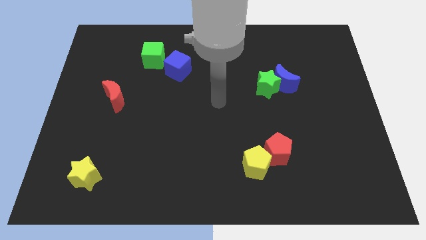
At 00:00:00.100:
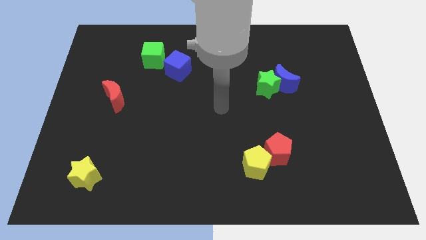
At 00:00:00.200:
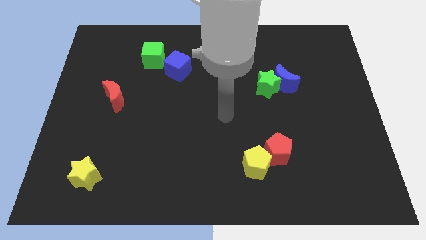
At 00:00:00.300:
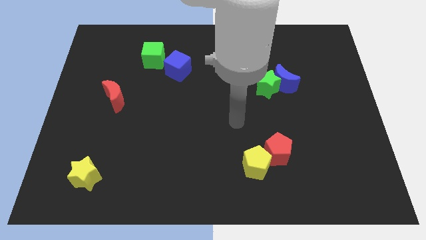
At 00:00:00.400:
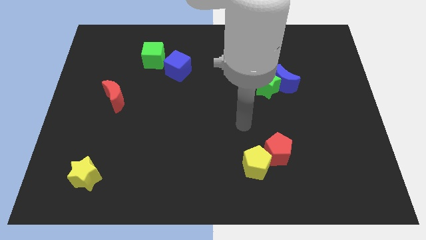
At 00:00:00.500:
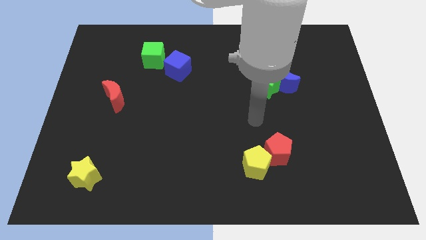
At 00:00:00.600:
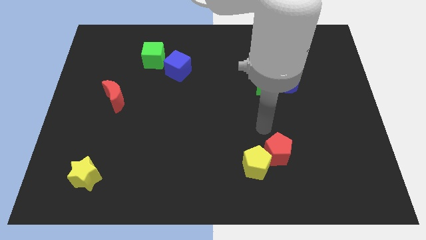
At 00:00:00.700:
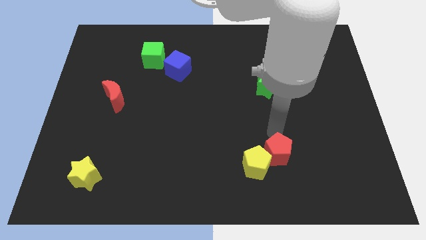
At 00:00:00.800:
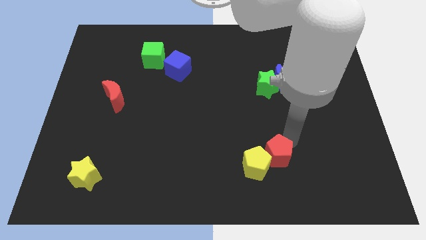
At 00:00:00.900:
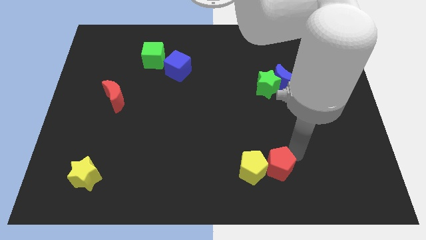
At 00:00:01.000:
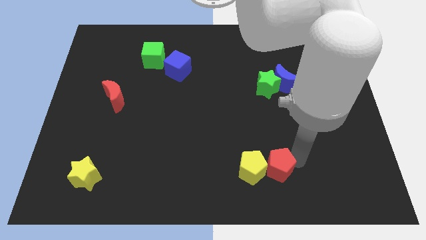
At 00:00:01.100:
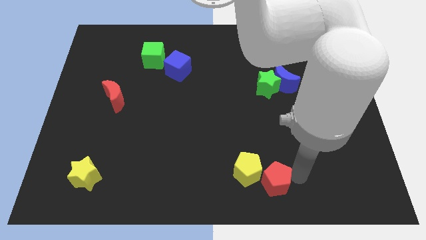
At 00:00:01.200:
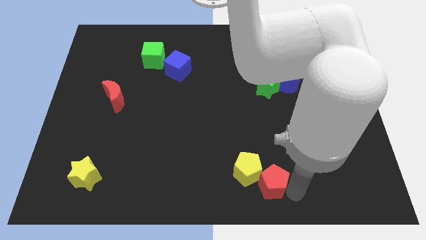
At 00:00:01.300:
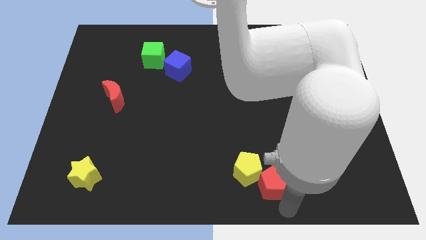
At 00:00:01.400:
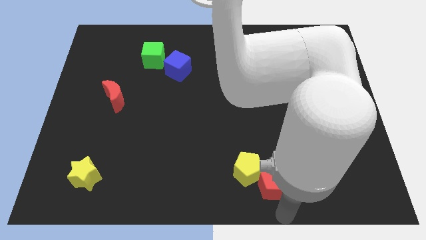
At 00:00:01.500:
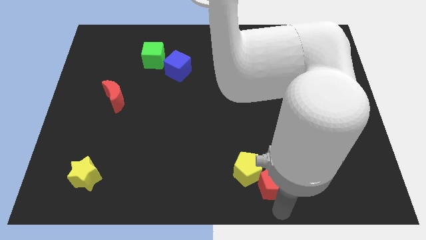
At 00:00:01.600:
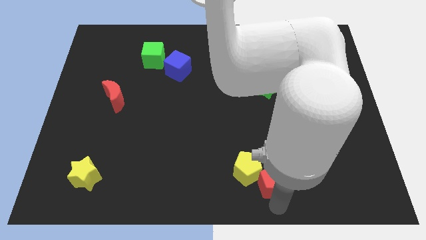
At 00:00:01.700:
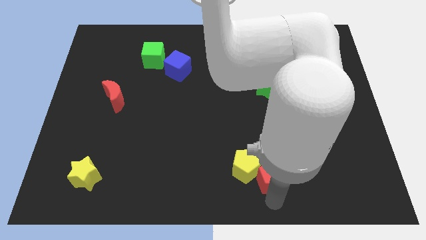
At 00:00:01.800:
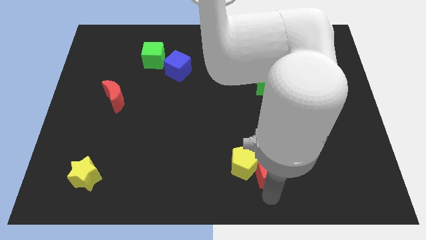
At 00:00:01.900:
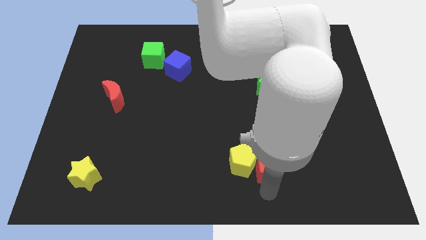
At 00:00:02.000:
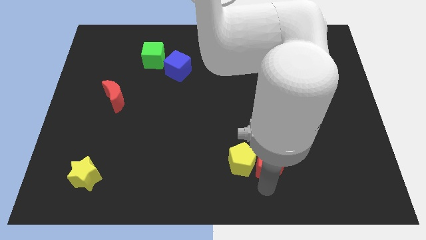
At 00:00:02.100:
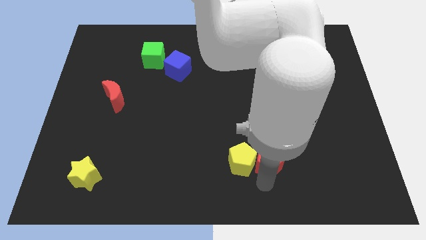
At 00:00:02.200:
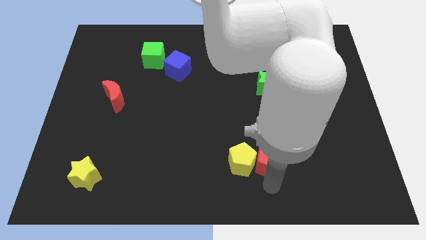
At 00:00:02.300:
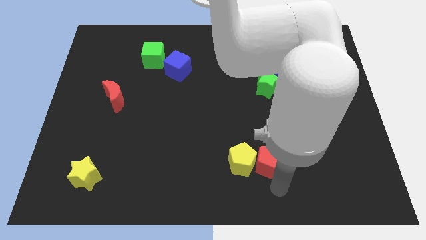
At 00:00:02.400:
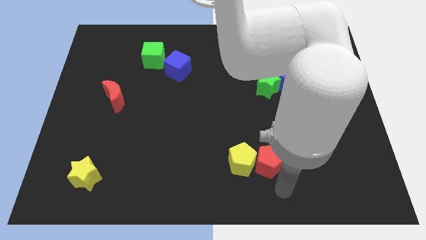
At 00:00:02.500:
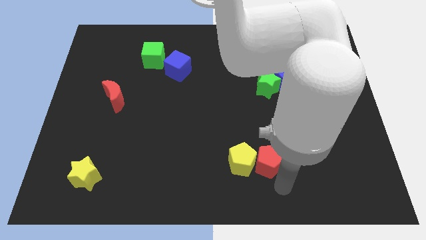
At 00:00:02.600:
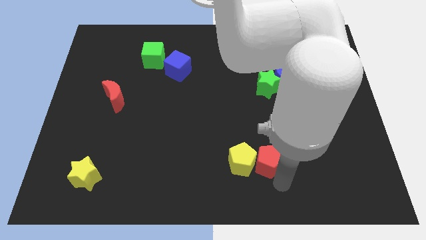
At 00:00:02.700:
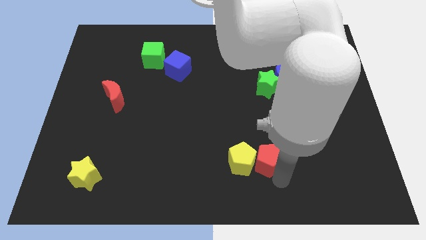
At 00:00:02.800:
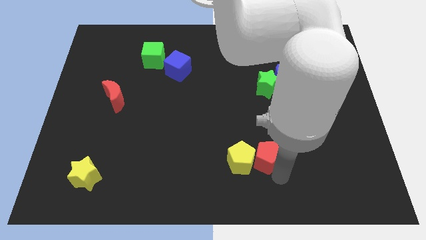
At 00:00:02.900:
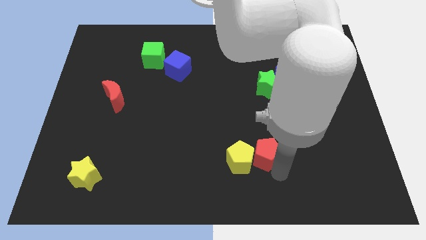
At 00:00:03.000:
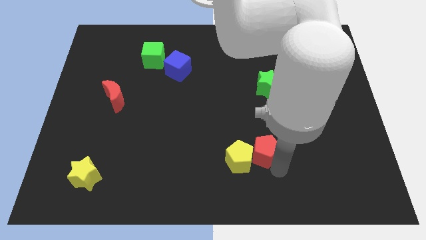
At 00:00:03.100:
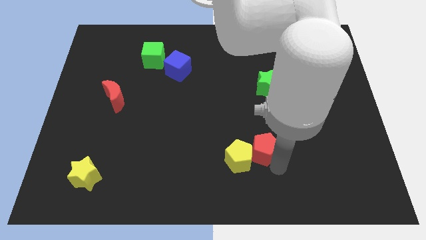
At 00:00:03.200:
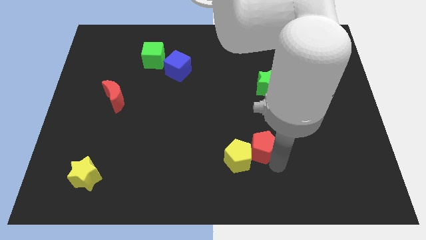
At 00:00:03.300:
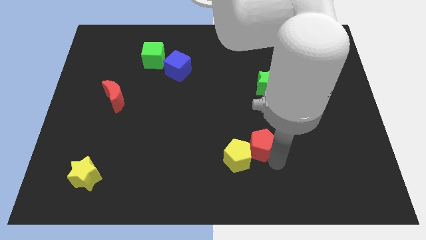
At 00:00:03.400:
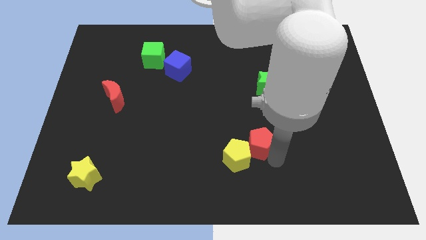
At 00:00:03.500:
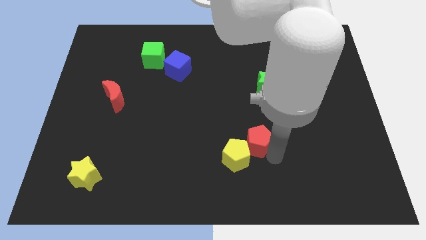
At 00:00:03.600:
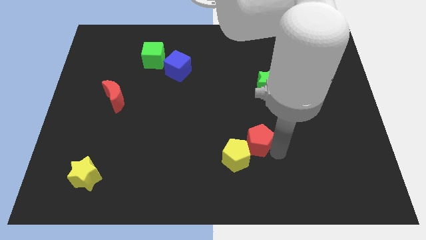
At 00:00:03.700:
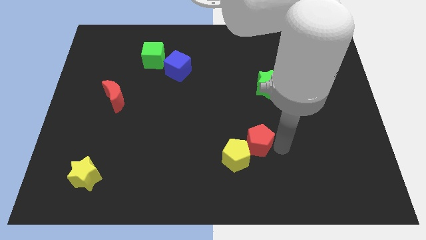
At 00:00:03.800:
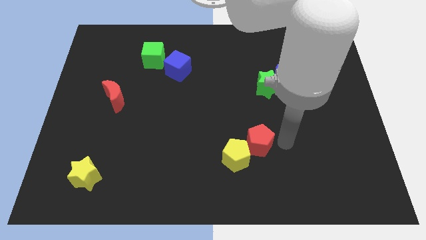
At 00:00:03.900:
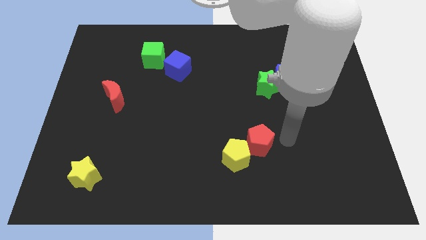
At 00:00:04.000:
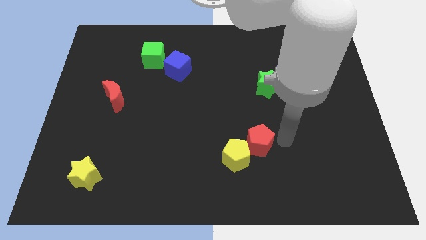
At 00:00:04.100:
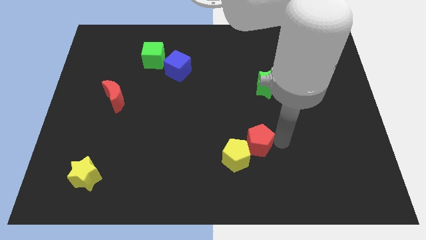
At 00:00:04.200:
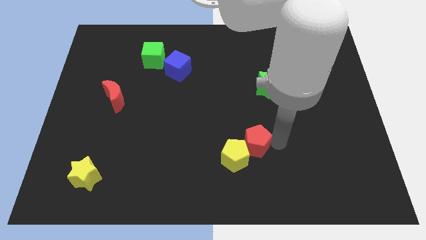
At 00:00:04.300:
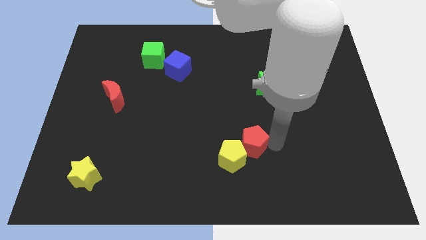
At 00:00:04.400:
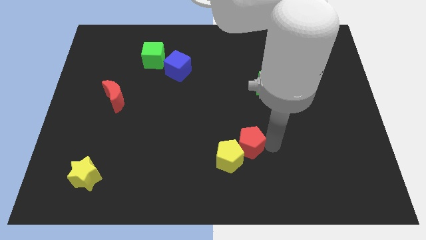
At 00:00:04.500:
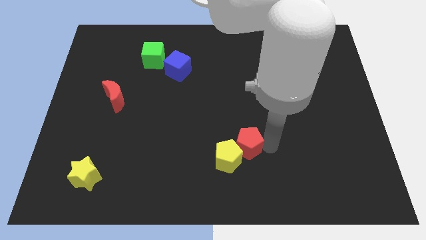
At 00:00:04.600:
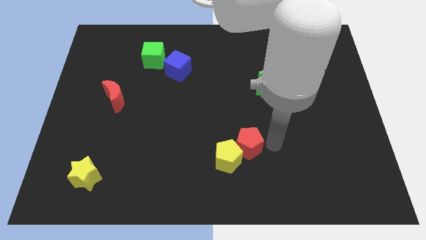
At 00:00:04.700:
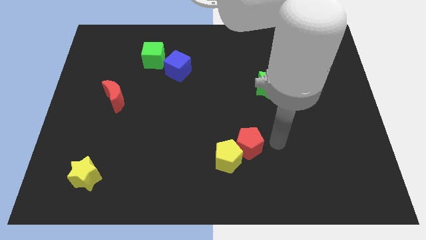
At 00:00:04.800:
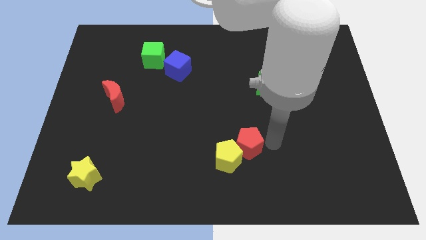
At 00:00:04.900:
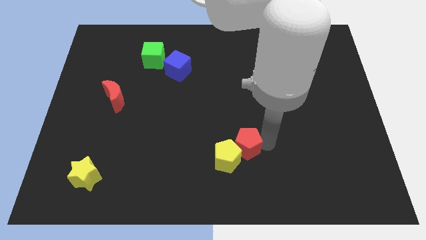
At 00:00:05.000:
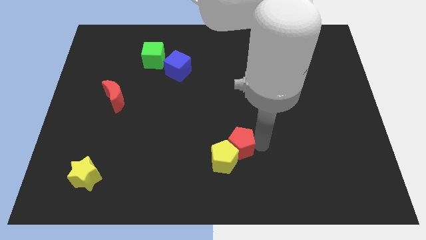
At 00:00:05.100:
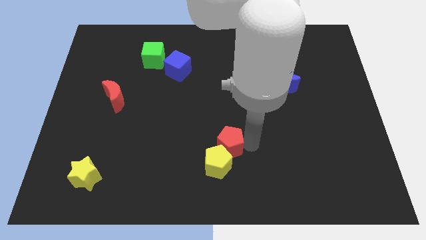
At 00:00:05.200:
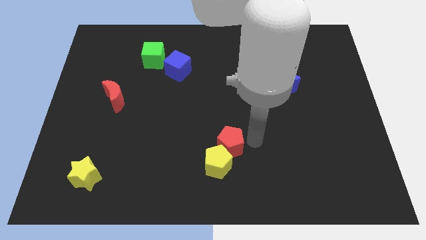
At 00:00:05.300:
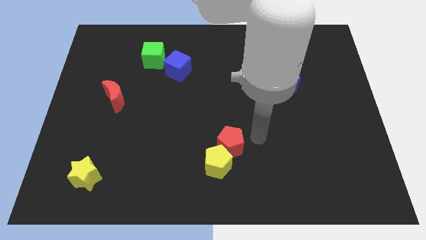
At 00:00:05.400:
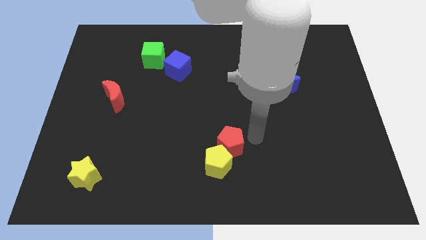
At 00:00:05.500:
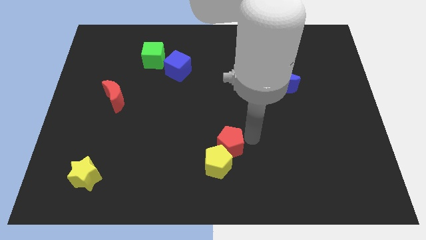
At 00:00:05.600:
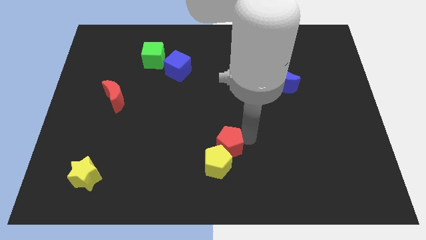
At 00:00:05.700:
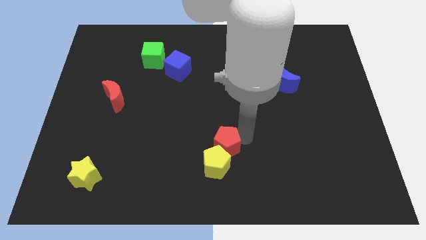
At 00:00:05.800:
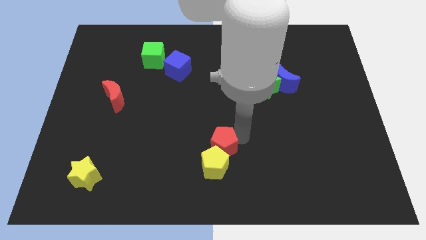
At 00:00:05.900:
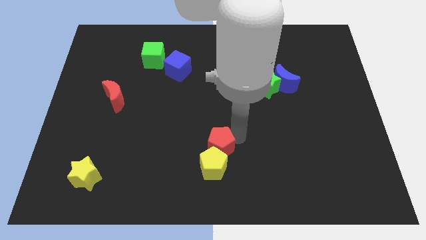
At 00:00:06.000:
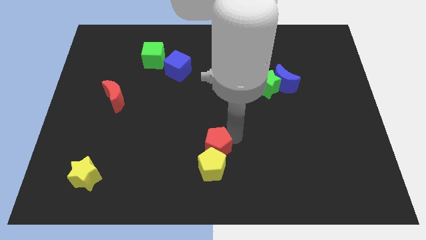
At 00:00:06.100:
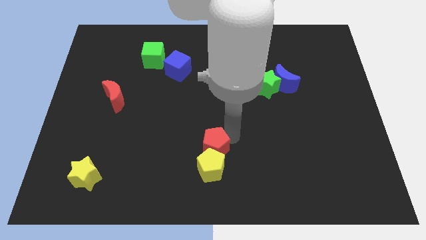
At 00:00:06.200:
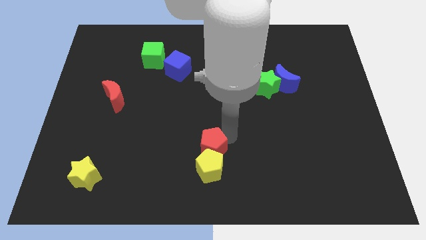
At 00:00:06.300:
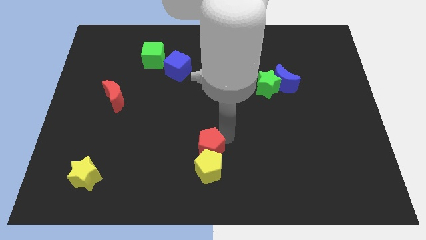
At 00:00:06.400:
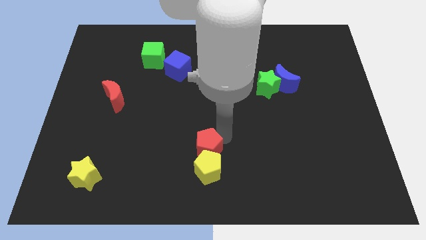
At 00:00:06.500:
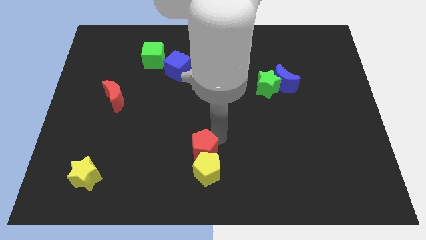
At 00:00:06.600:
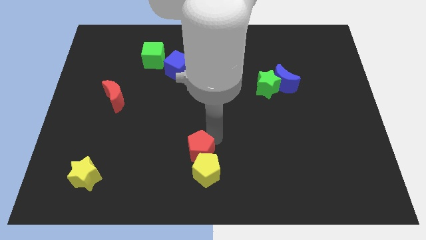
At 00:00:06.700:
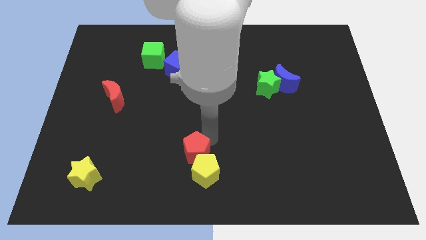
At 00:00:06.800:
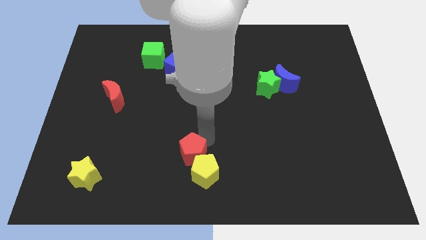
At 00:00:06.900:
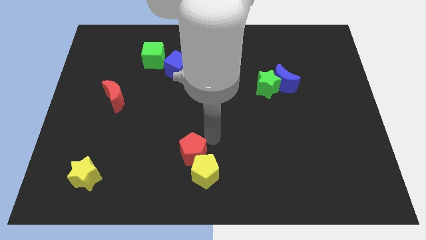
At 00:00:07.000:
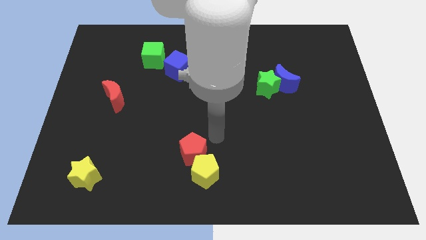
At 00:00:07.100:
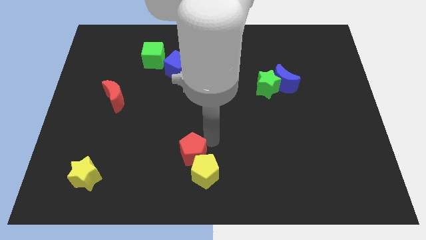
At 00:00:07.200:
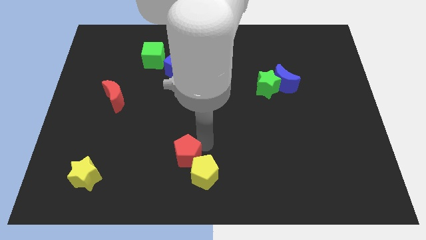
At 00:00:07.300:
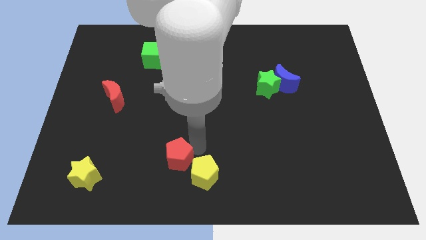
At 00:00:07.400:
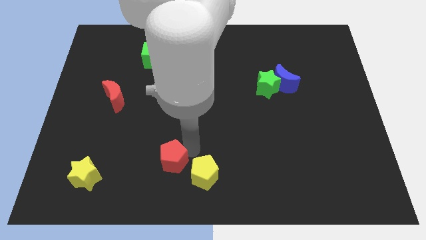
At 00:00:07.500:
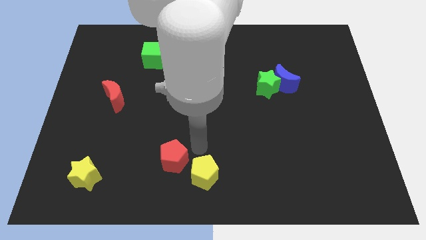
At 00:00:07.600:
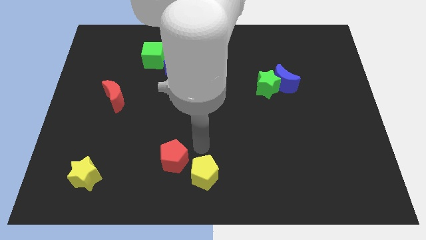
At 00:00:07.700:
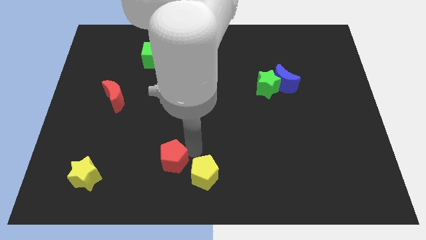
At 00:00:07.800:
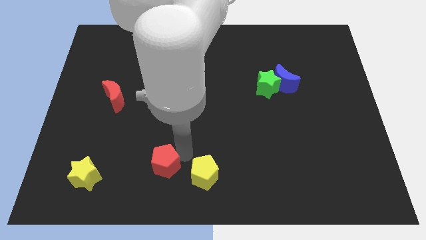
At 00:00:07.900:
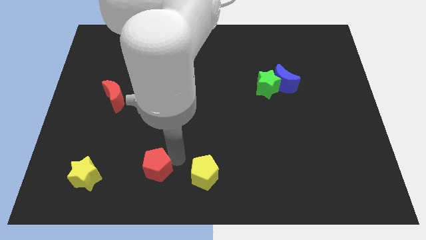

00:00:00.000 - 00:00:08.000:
slide the red pentagon just right of the yellow star
